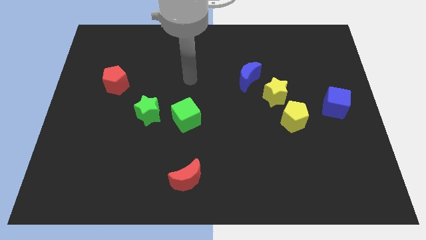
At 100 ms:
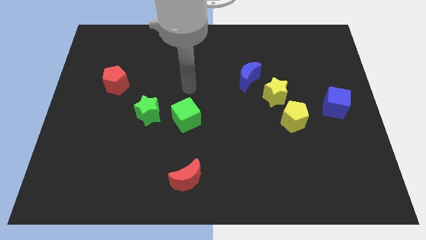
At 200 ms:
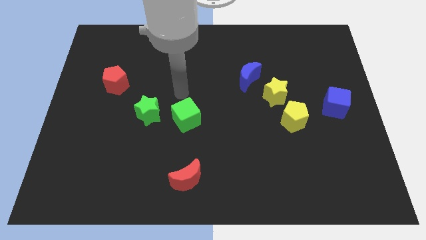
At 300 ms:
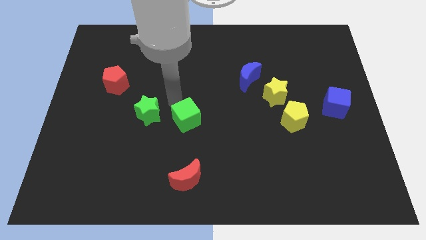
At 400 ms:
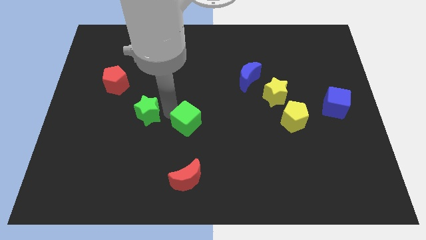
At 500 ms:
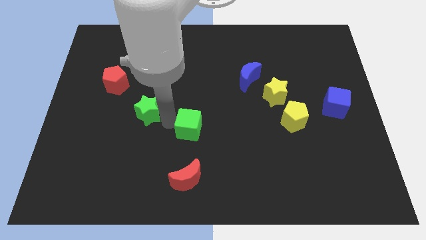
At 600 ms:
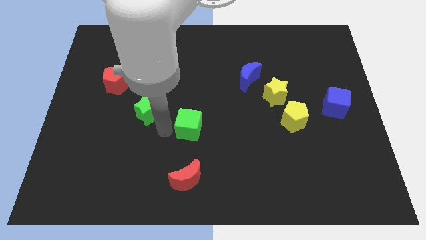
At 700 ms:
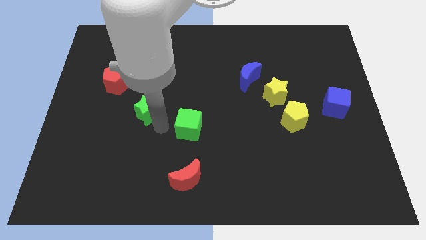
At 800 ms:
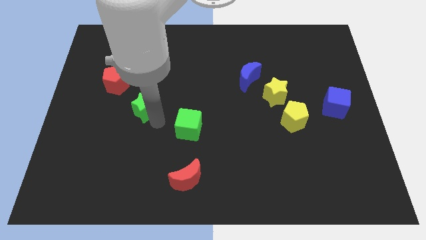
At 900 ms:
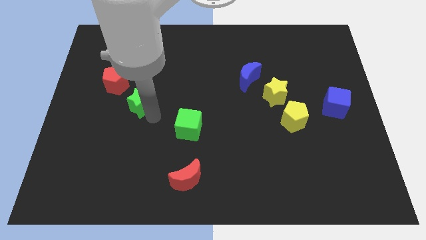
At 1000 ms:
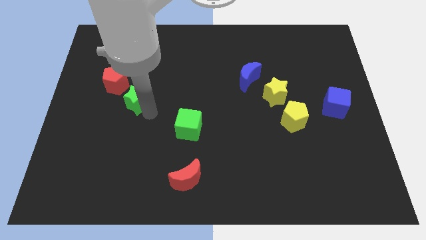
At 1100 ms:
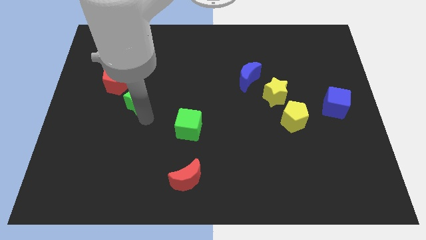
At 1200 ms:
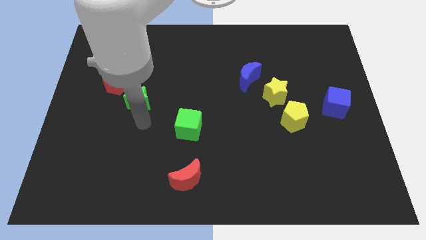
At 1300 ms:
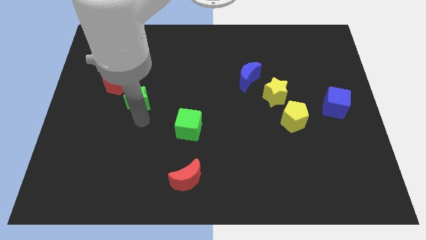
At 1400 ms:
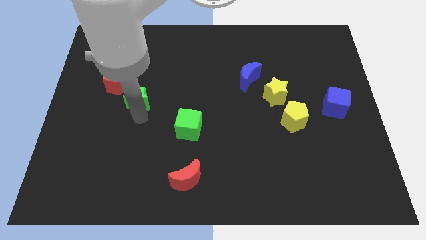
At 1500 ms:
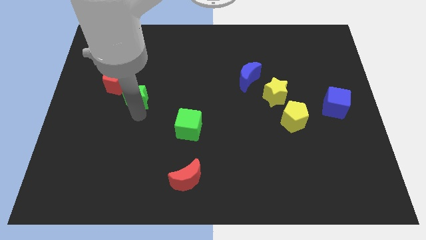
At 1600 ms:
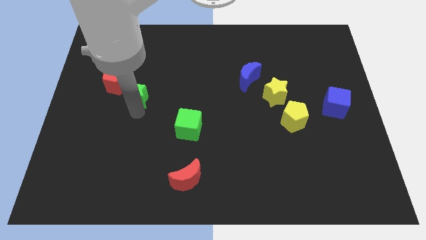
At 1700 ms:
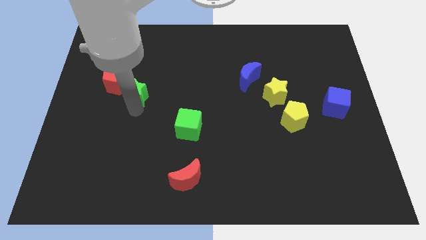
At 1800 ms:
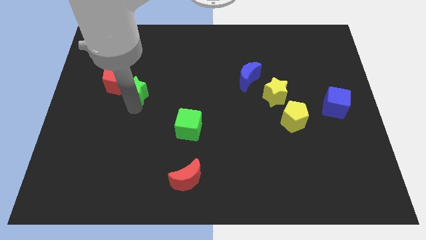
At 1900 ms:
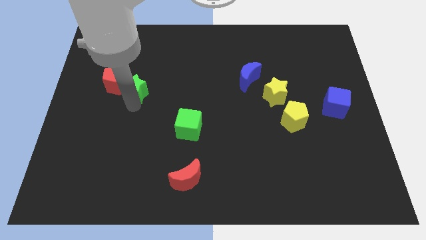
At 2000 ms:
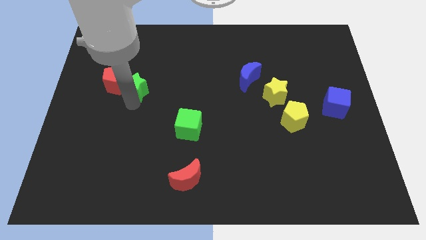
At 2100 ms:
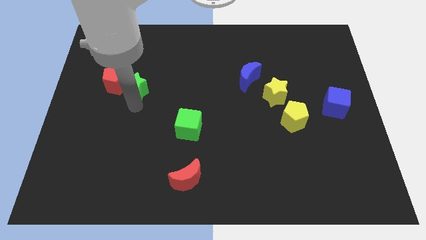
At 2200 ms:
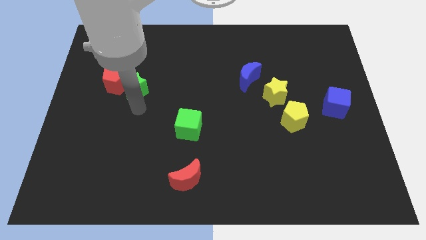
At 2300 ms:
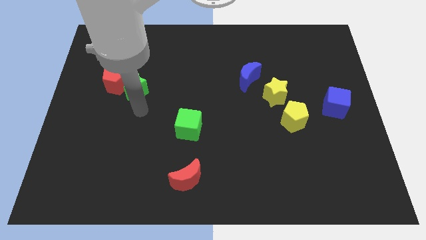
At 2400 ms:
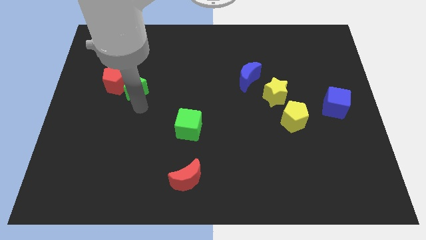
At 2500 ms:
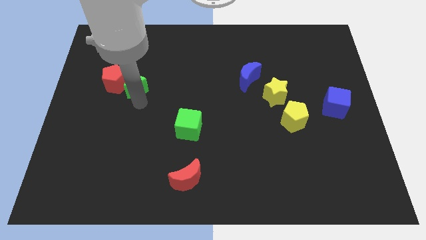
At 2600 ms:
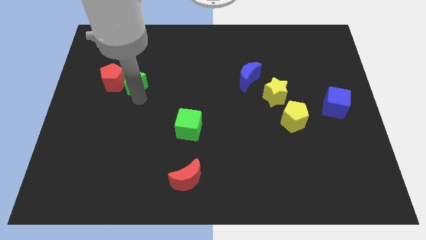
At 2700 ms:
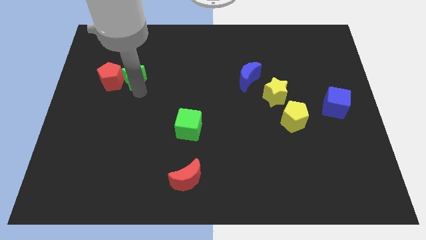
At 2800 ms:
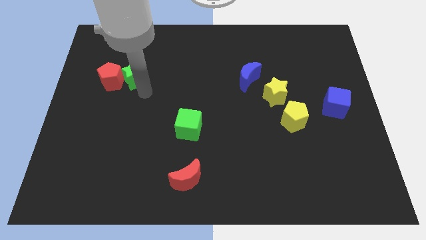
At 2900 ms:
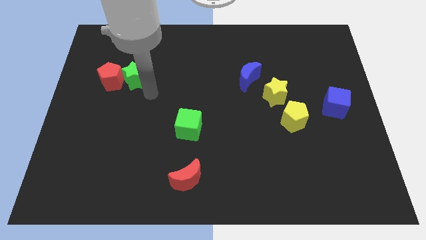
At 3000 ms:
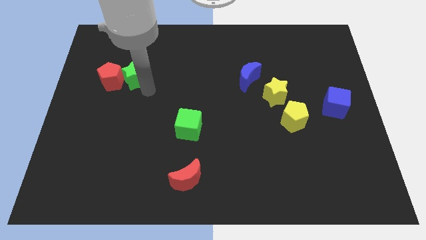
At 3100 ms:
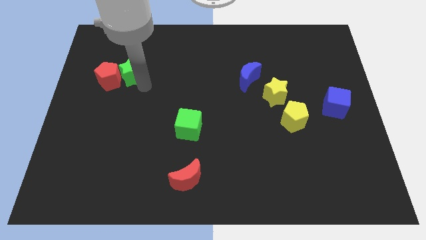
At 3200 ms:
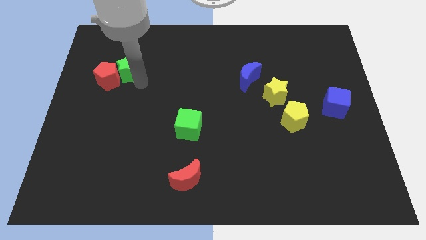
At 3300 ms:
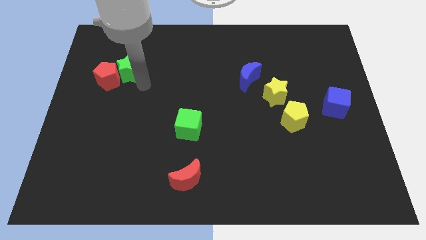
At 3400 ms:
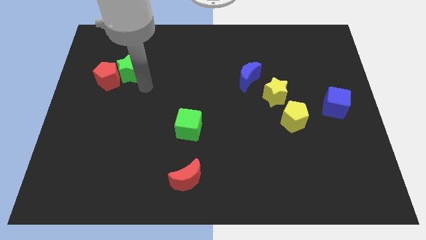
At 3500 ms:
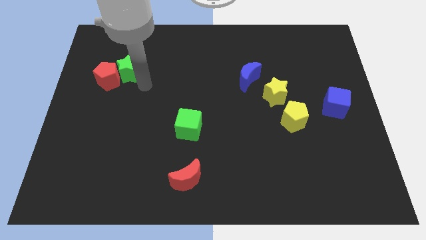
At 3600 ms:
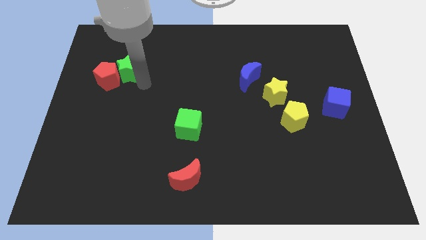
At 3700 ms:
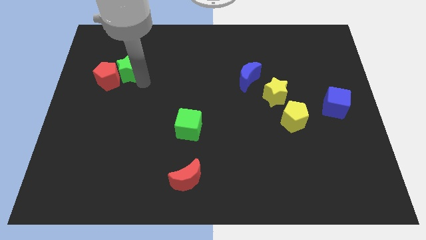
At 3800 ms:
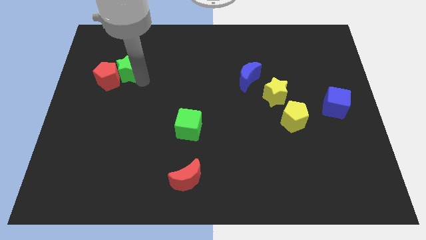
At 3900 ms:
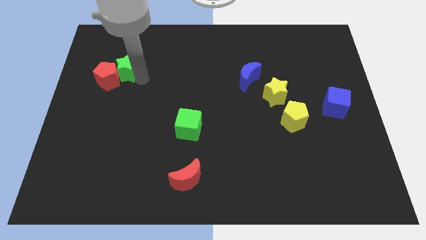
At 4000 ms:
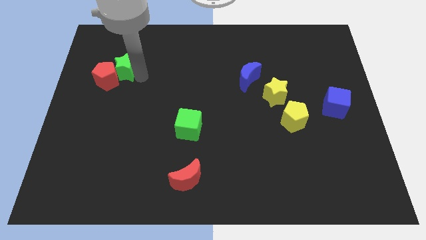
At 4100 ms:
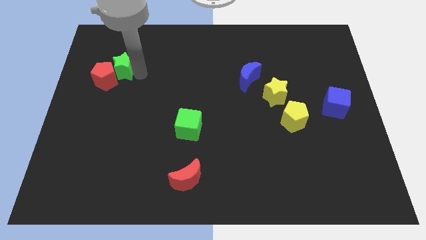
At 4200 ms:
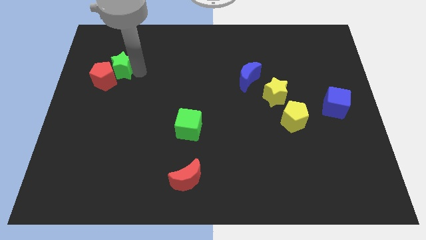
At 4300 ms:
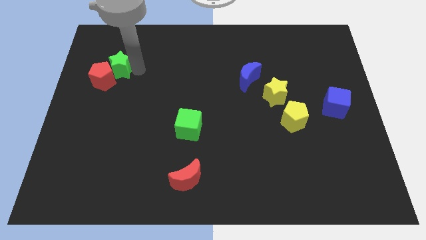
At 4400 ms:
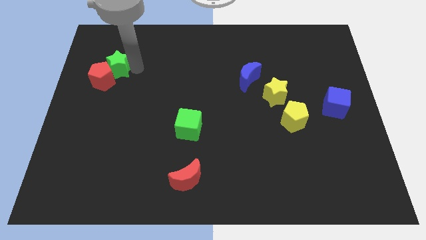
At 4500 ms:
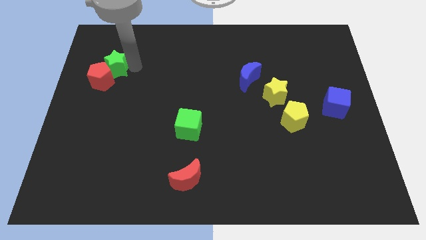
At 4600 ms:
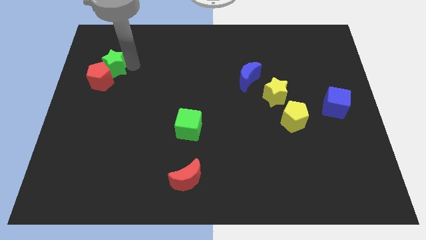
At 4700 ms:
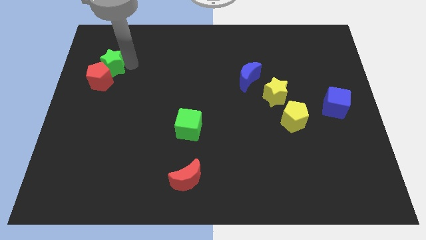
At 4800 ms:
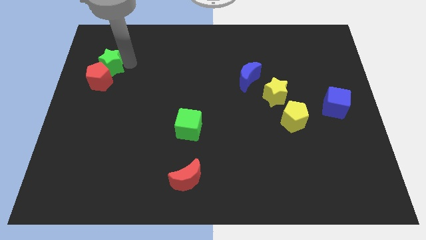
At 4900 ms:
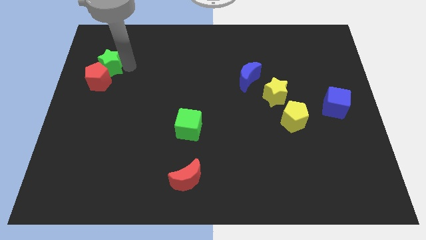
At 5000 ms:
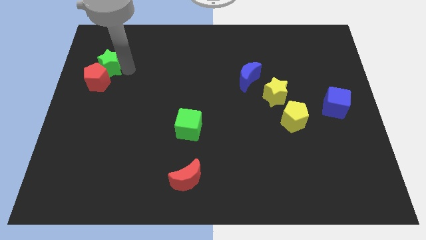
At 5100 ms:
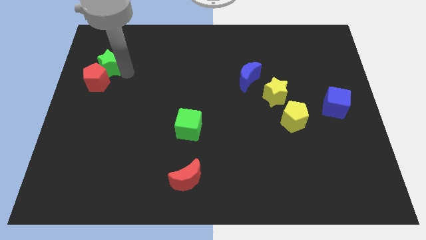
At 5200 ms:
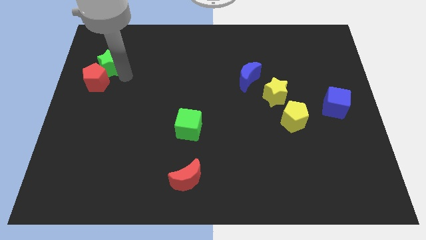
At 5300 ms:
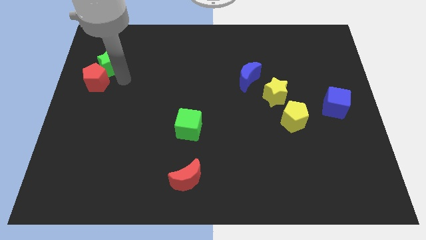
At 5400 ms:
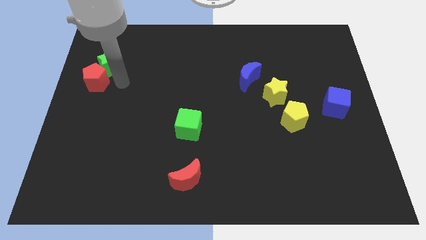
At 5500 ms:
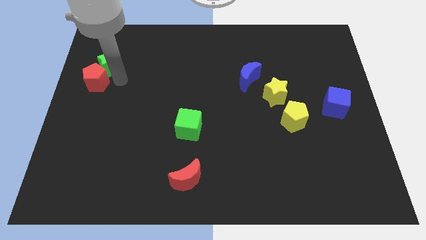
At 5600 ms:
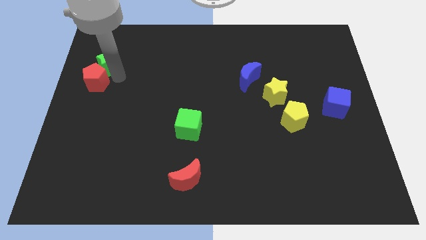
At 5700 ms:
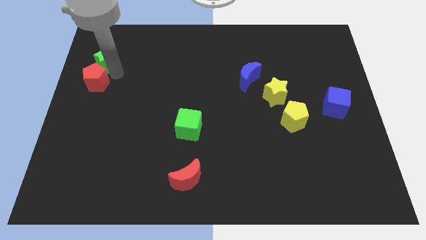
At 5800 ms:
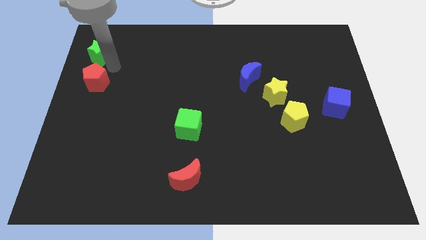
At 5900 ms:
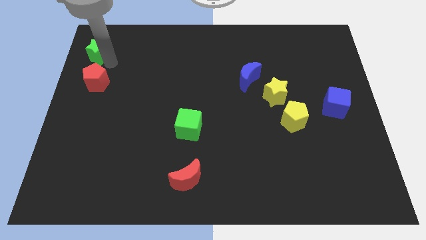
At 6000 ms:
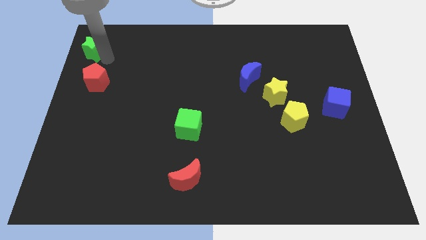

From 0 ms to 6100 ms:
slide the green star to the top left
